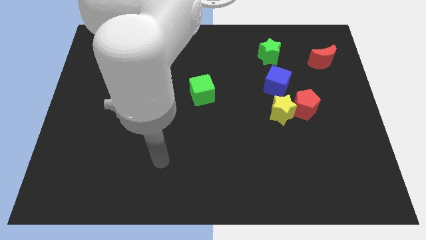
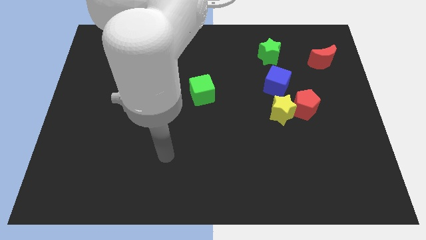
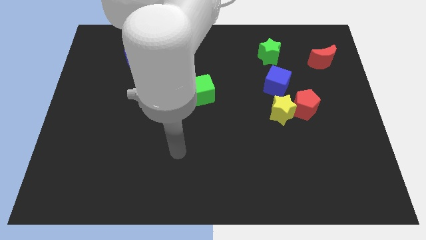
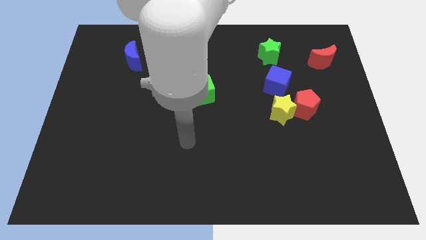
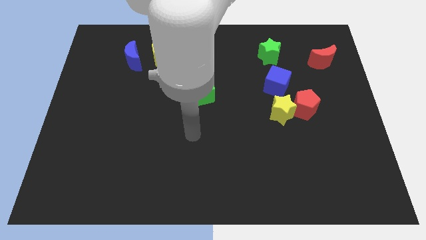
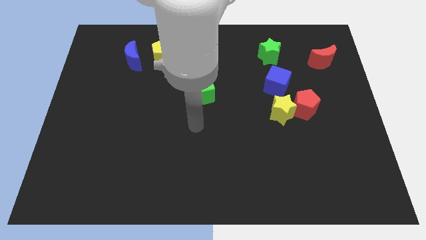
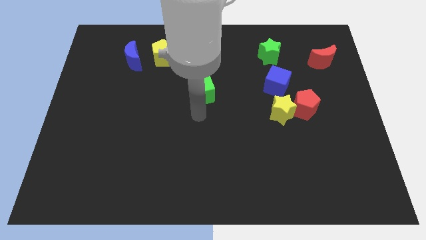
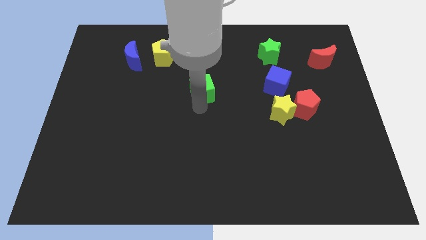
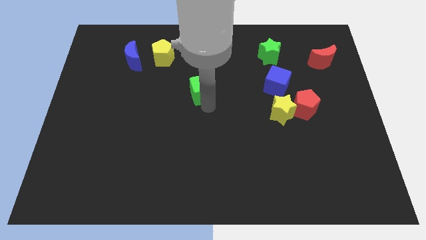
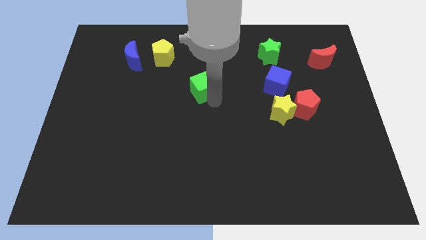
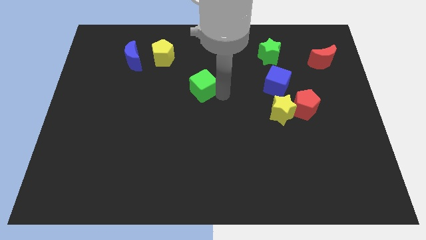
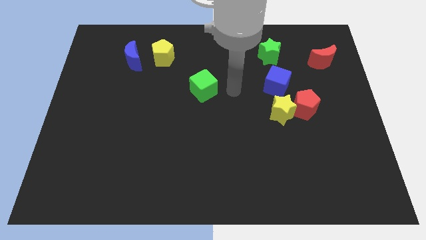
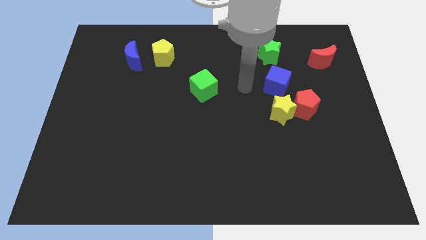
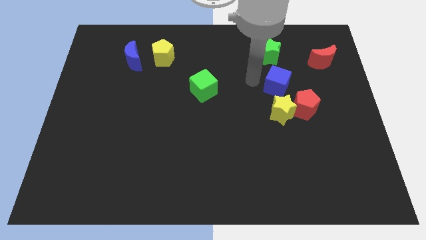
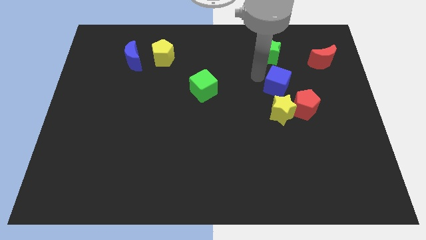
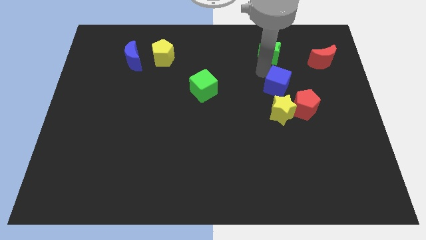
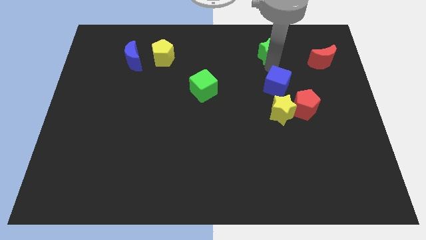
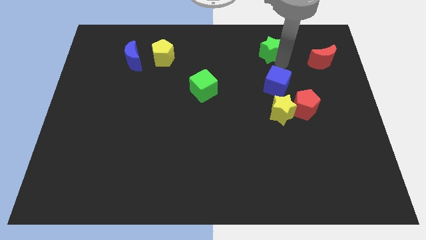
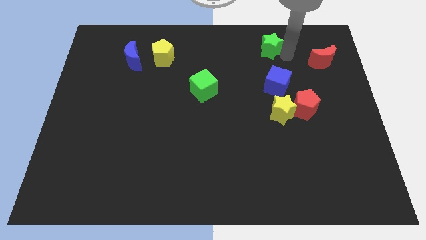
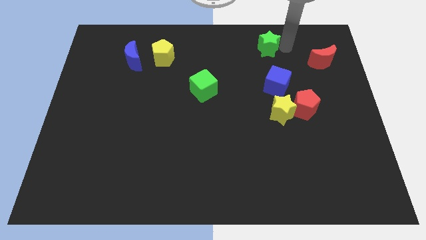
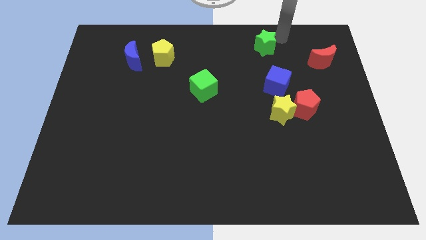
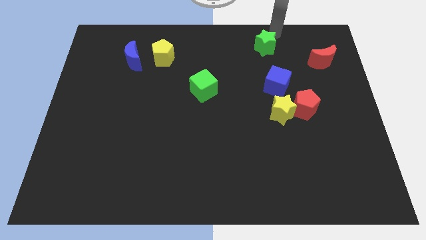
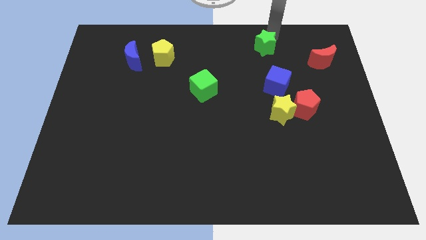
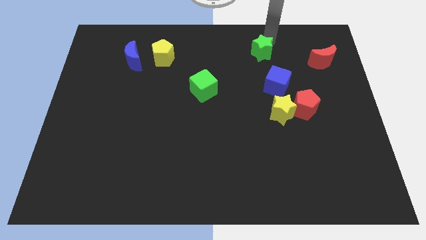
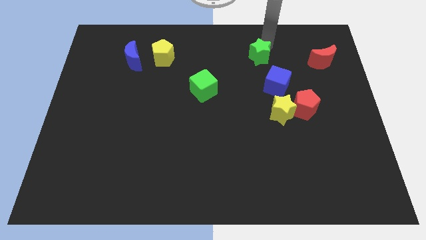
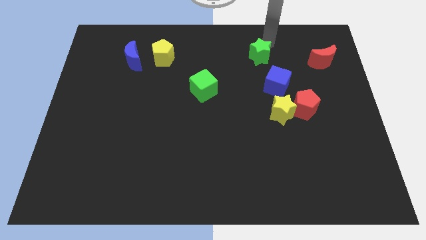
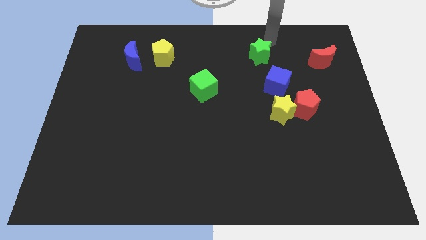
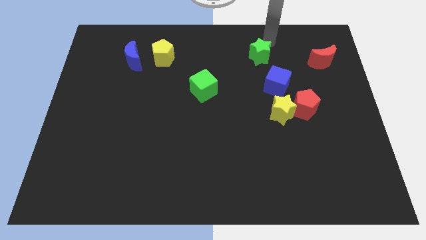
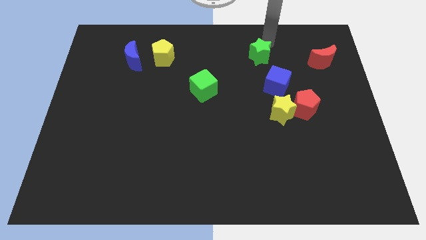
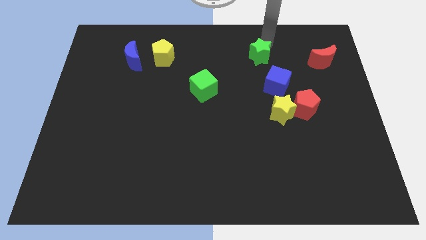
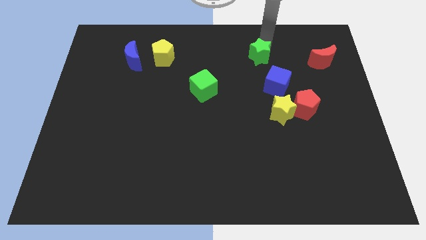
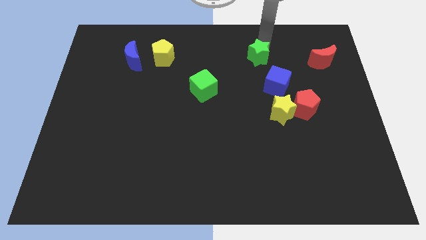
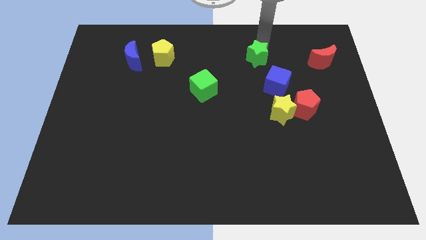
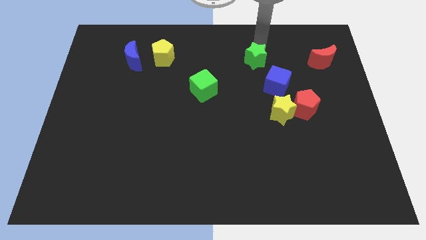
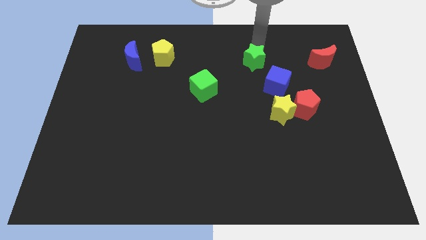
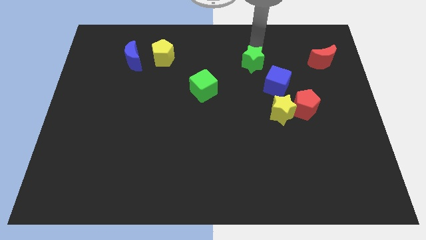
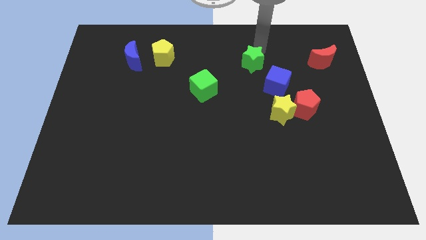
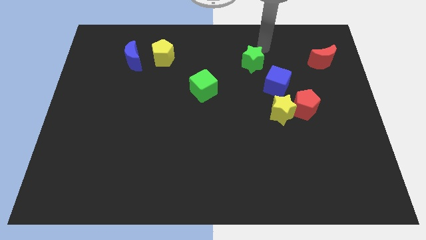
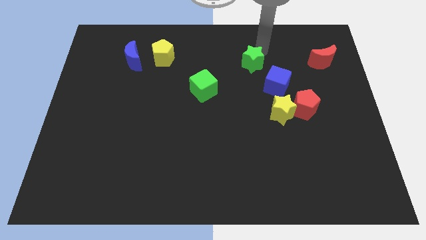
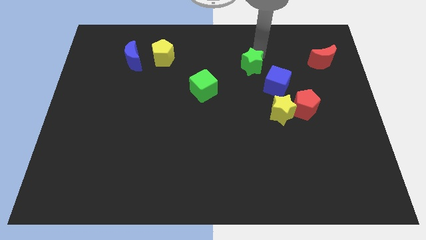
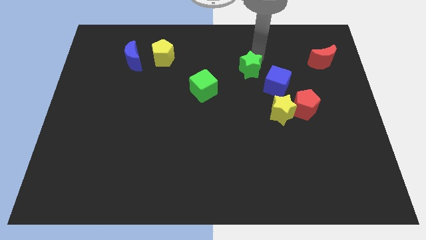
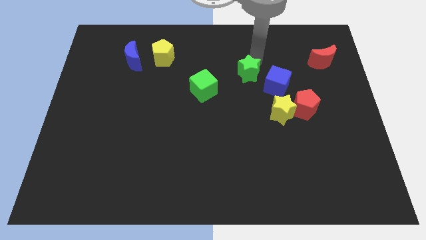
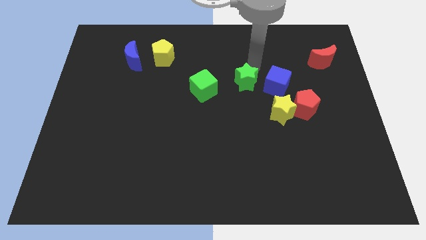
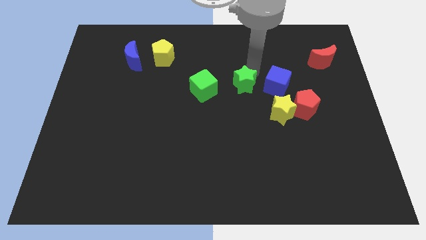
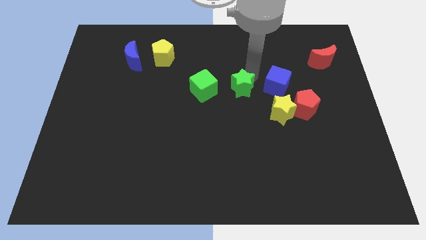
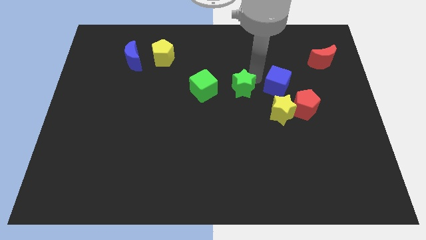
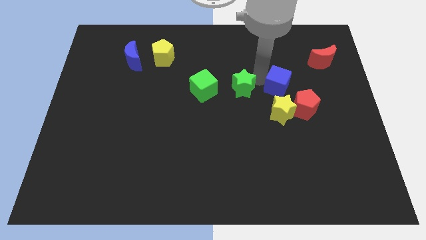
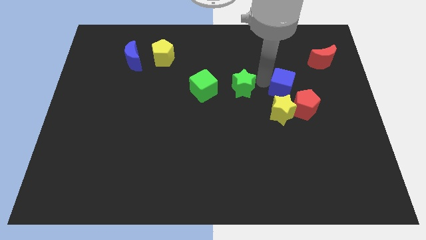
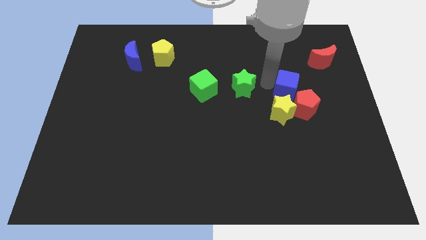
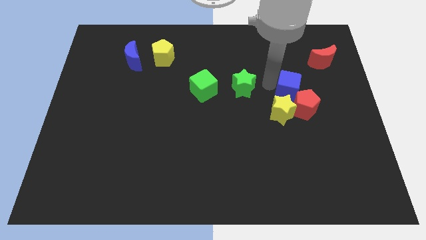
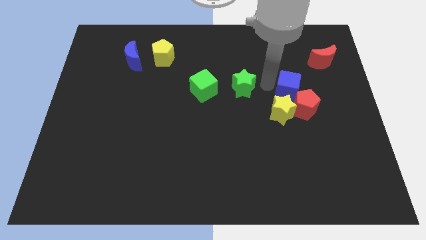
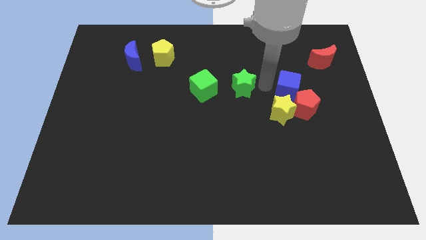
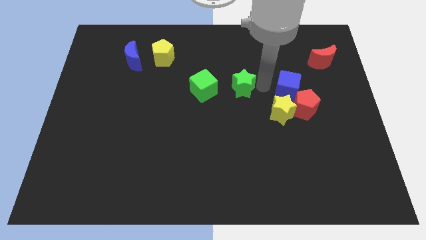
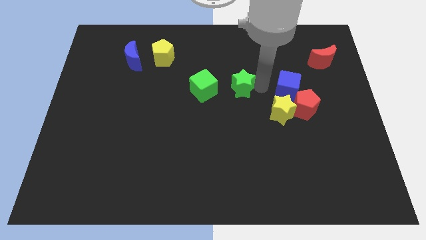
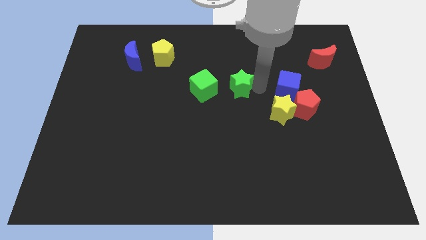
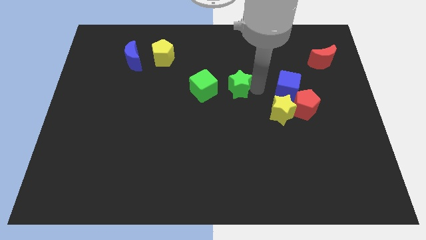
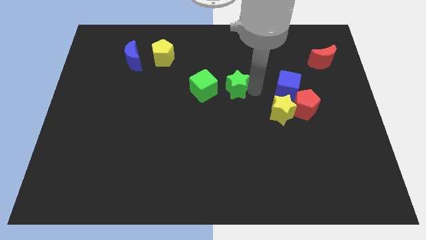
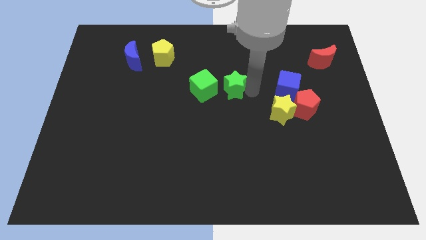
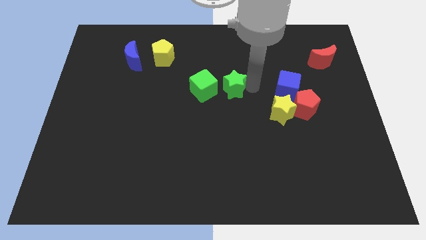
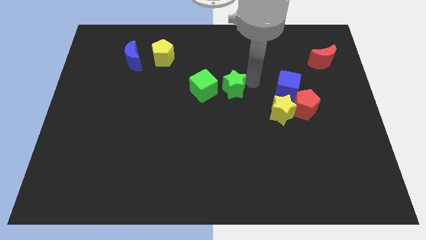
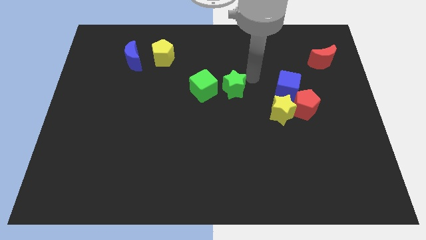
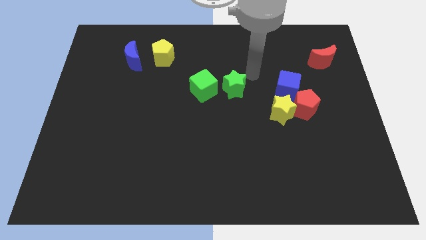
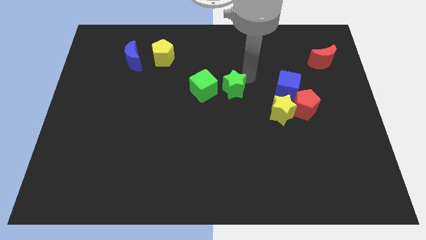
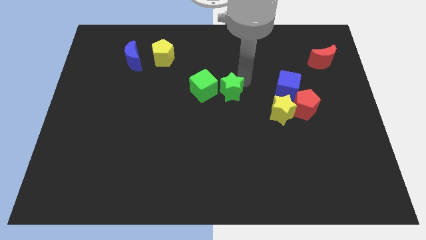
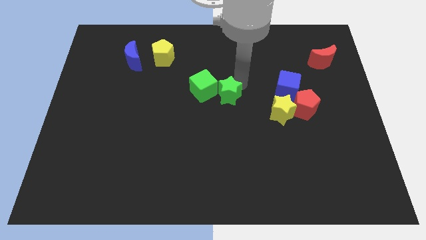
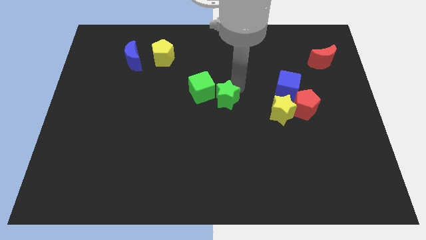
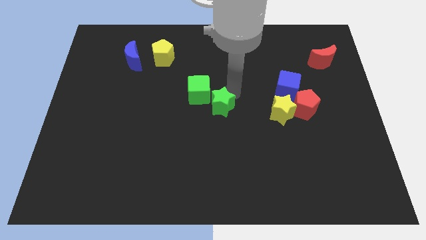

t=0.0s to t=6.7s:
slide the green star down and then to the left

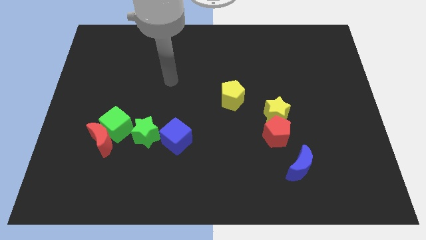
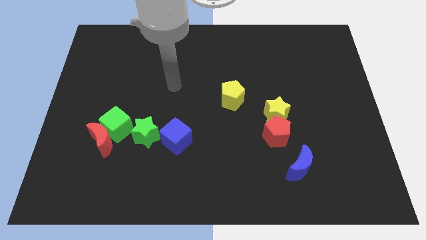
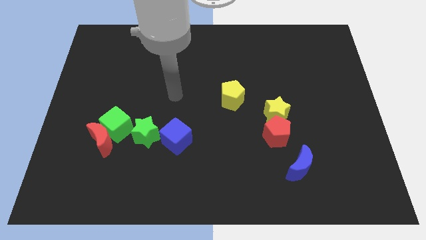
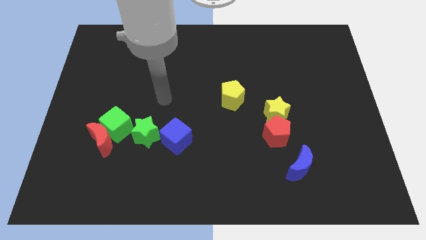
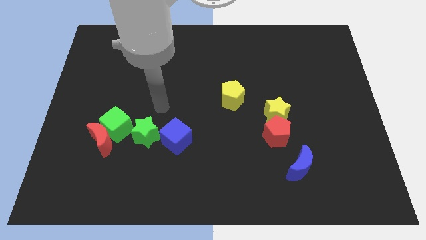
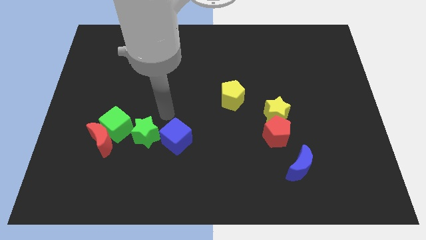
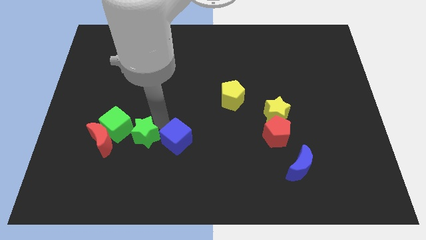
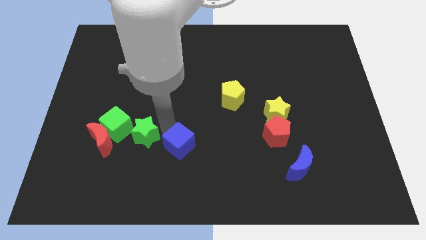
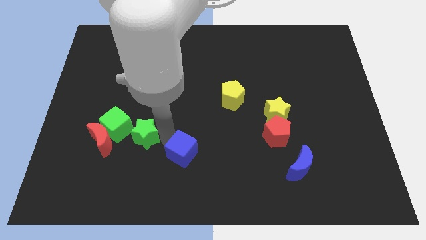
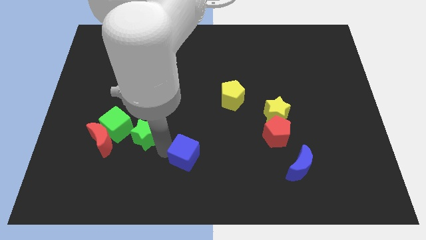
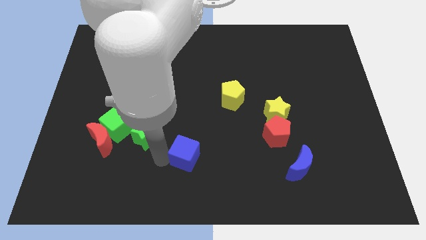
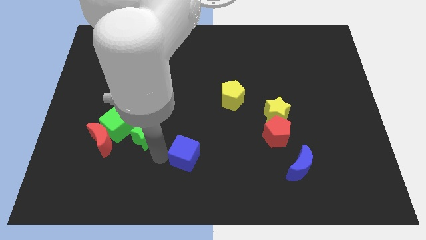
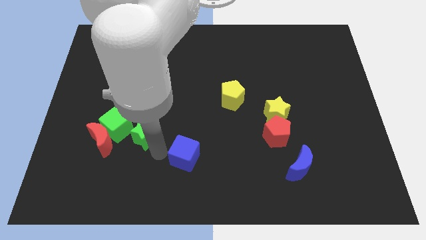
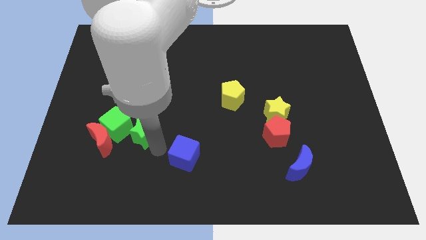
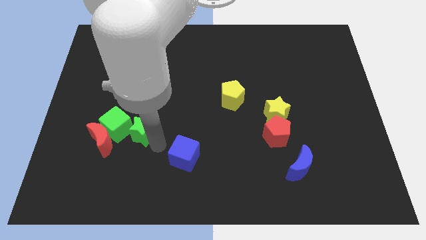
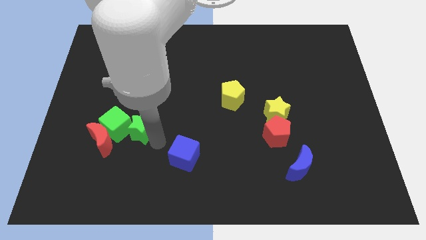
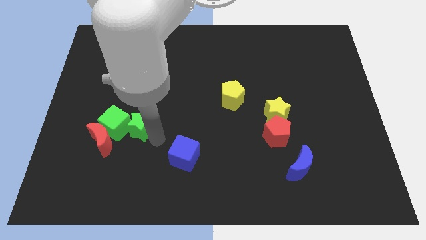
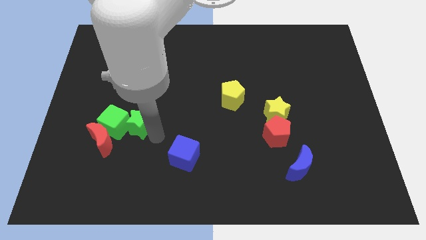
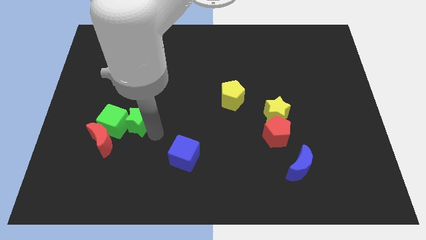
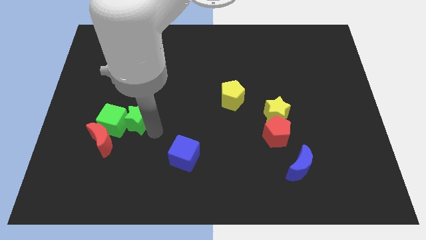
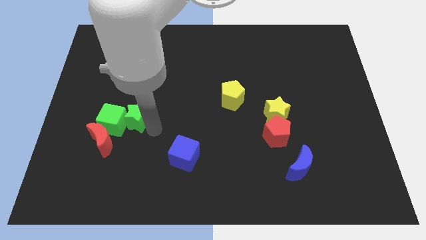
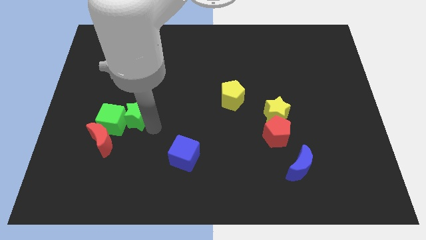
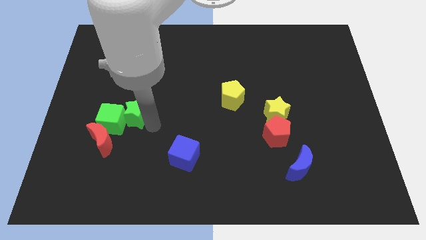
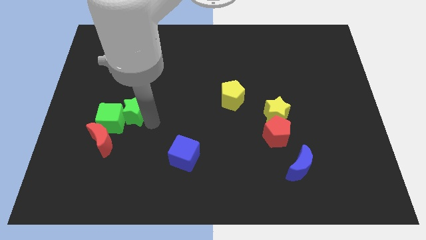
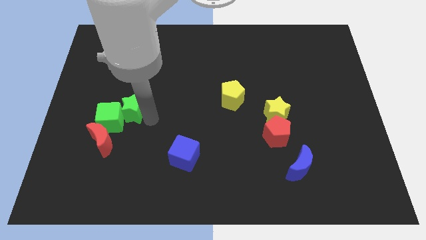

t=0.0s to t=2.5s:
slide the green star upwards and then to the left a bit
